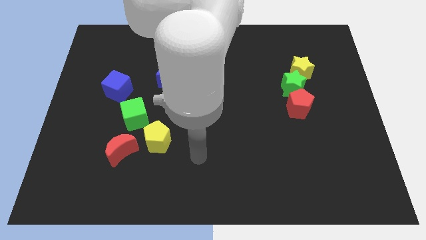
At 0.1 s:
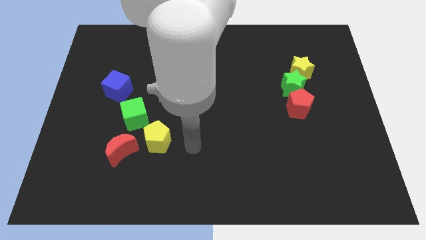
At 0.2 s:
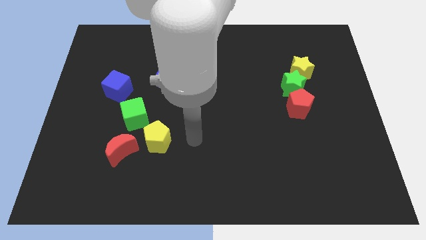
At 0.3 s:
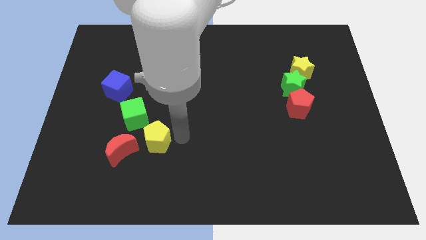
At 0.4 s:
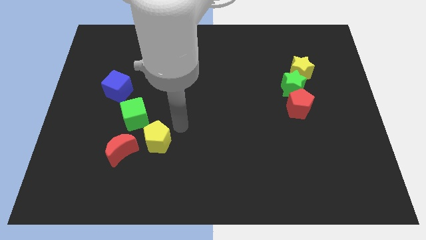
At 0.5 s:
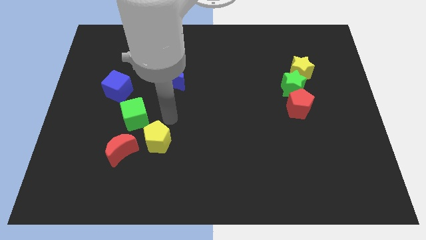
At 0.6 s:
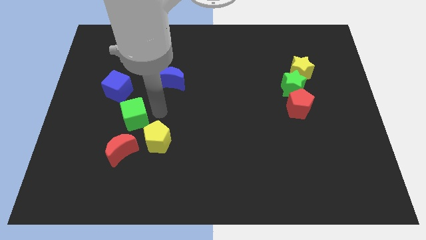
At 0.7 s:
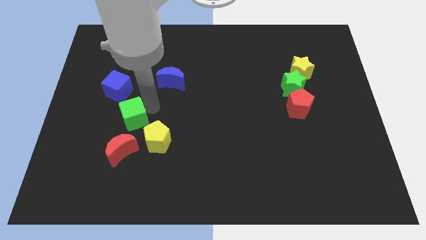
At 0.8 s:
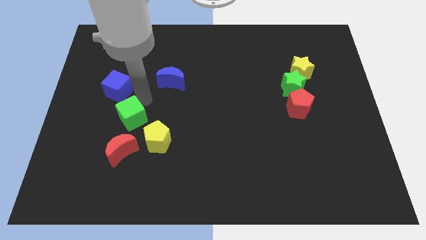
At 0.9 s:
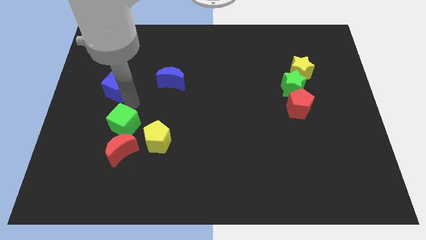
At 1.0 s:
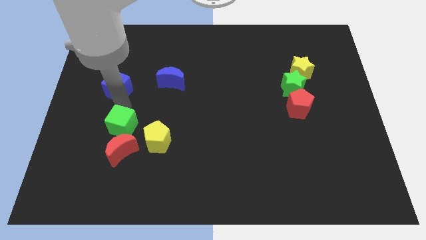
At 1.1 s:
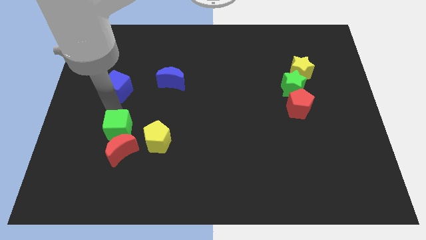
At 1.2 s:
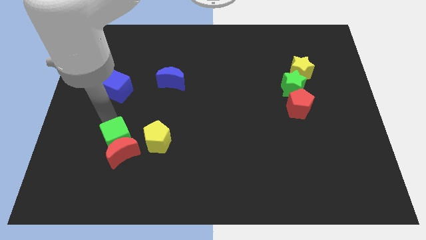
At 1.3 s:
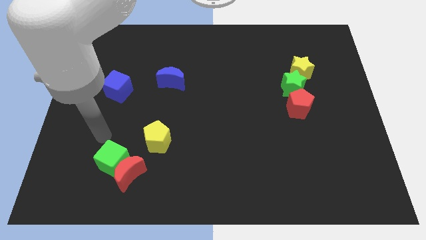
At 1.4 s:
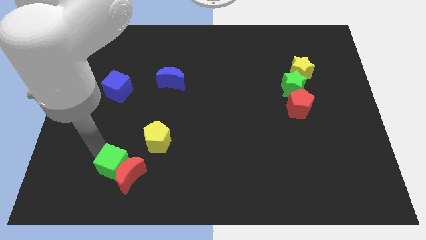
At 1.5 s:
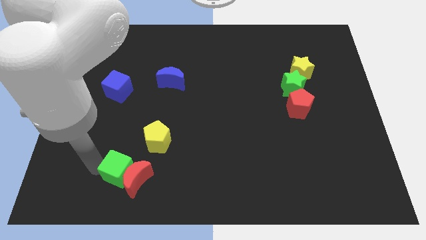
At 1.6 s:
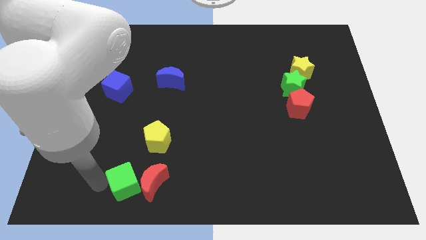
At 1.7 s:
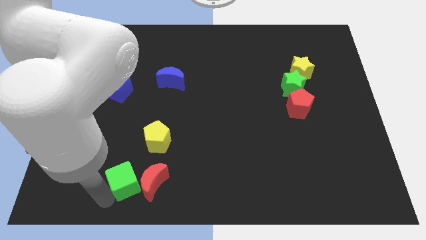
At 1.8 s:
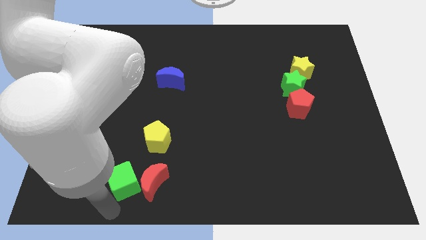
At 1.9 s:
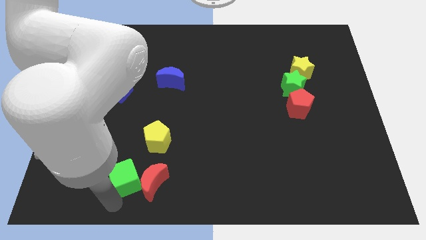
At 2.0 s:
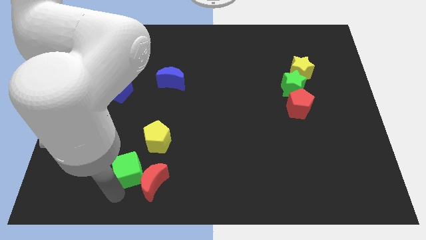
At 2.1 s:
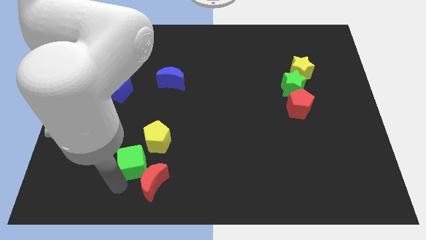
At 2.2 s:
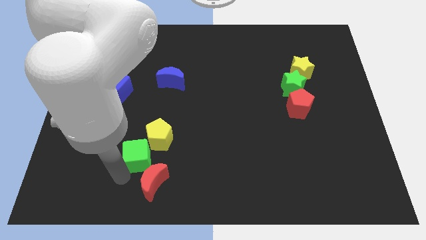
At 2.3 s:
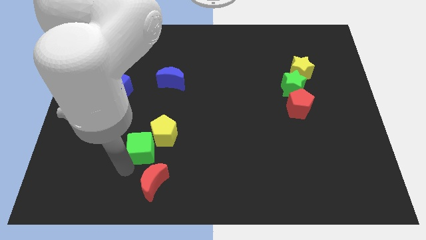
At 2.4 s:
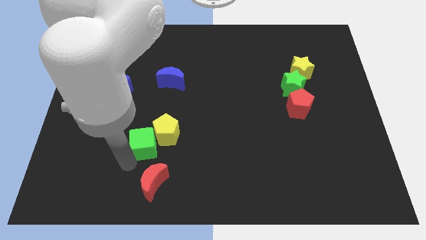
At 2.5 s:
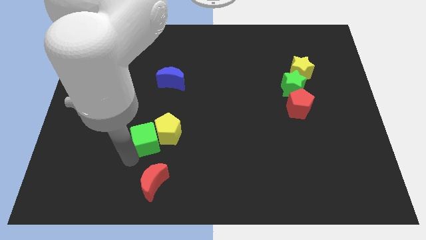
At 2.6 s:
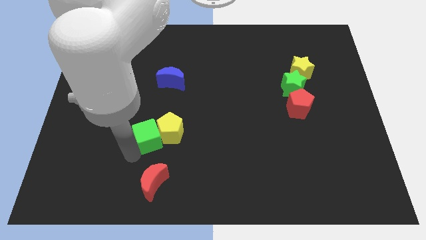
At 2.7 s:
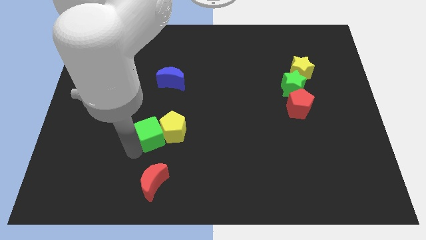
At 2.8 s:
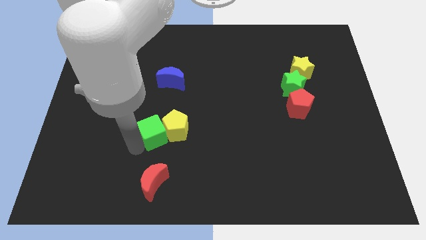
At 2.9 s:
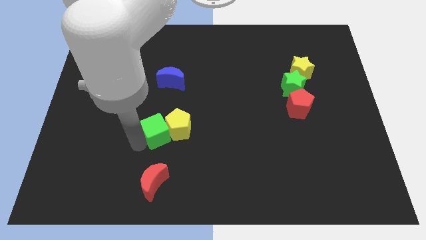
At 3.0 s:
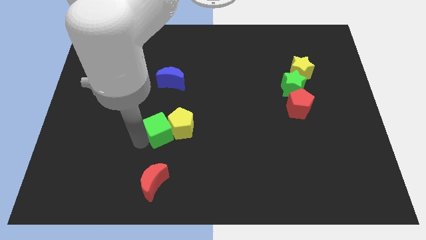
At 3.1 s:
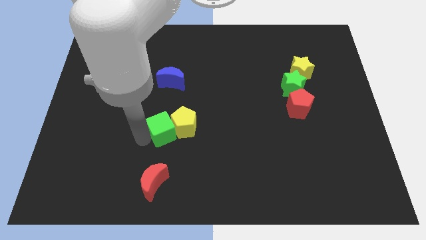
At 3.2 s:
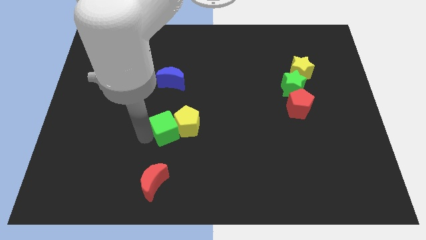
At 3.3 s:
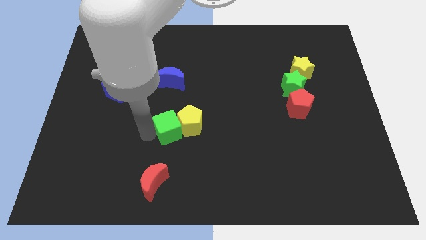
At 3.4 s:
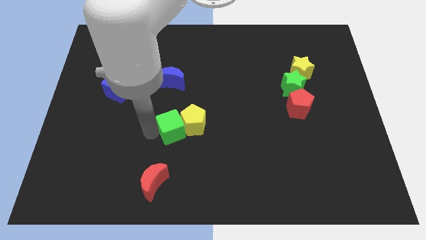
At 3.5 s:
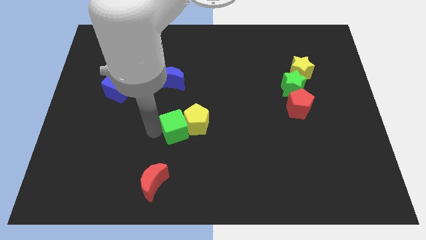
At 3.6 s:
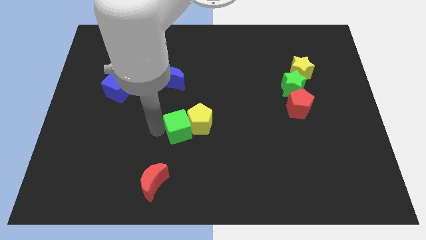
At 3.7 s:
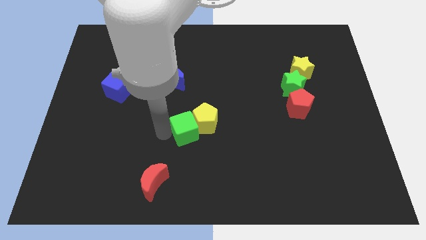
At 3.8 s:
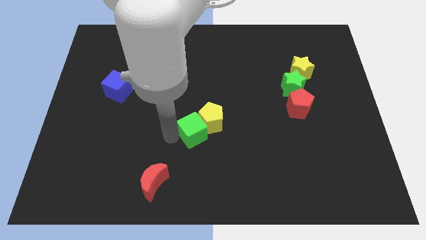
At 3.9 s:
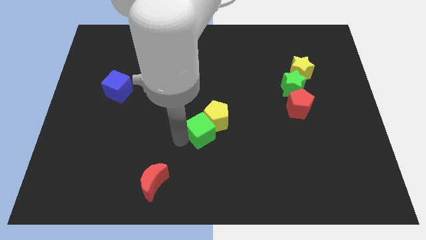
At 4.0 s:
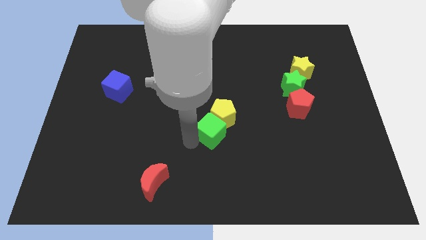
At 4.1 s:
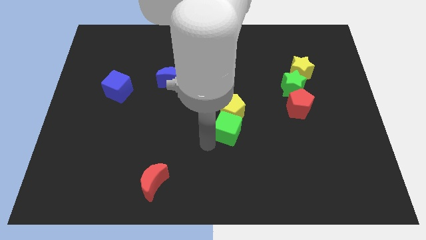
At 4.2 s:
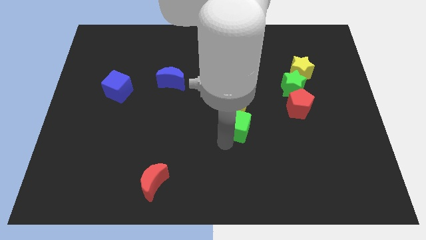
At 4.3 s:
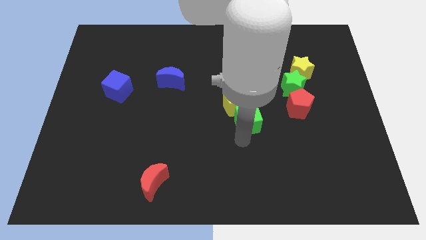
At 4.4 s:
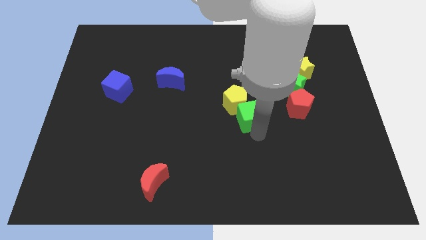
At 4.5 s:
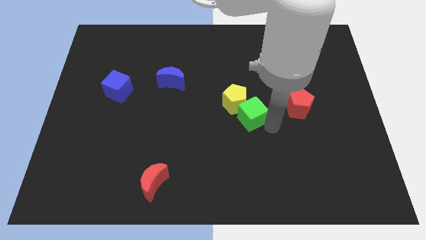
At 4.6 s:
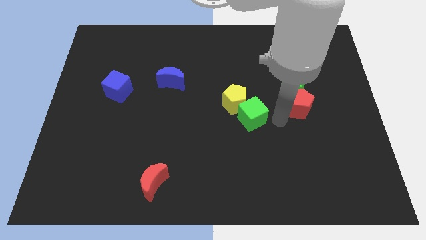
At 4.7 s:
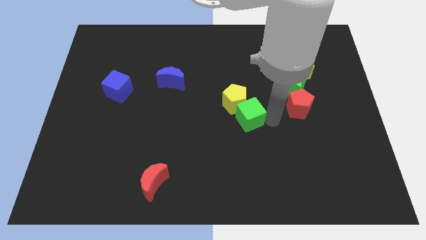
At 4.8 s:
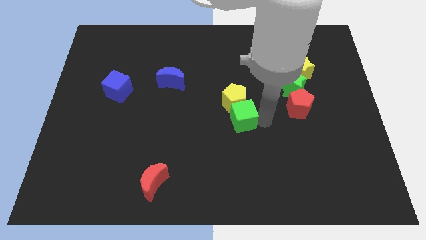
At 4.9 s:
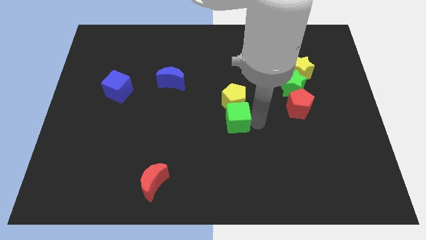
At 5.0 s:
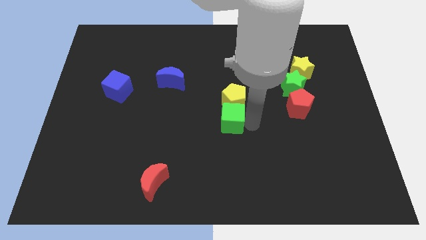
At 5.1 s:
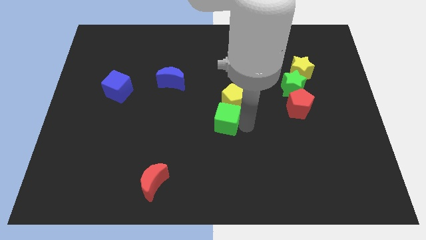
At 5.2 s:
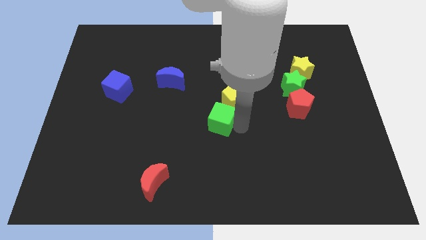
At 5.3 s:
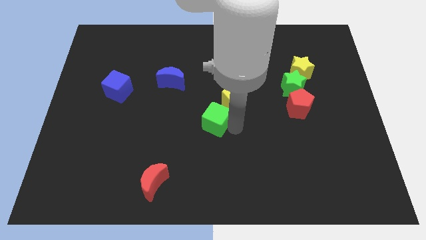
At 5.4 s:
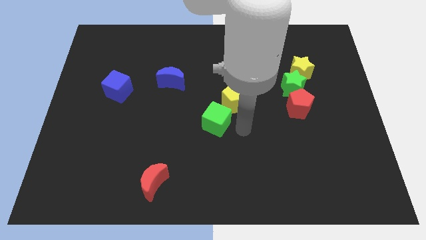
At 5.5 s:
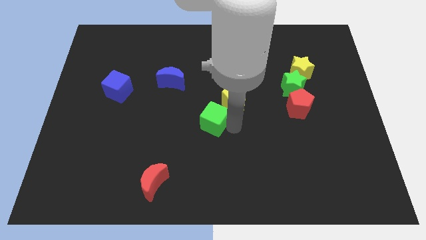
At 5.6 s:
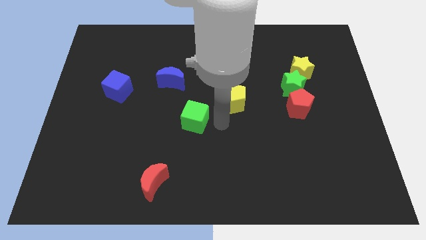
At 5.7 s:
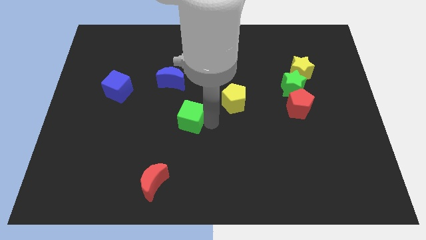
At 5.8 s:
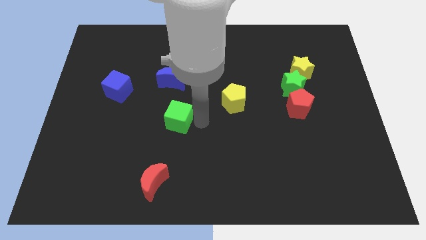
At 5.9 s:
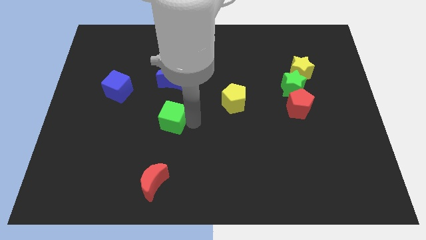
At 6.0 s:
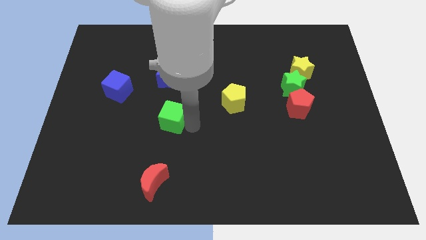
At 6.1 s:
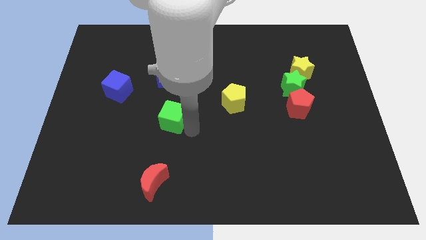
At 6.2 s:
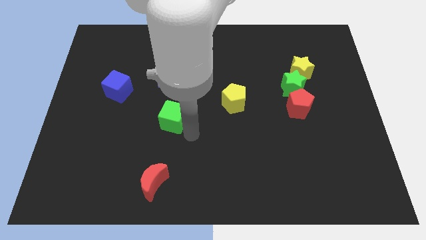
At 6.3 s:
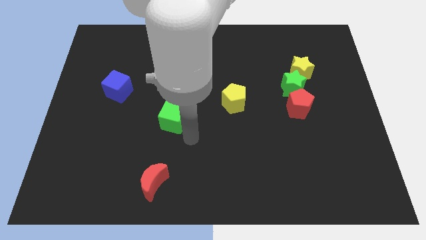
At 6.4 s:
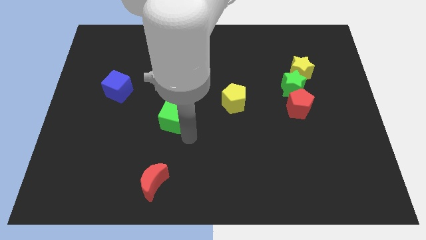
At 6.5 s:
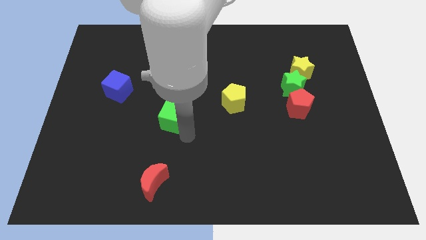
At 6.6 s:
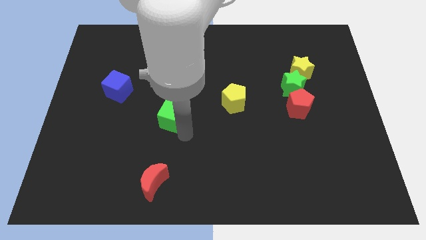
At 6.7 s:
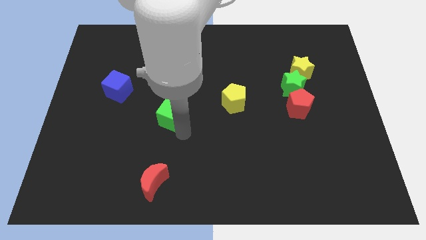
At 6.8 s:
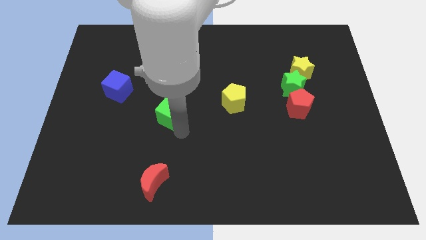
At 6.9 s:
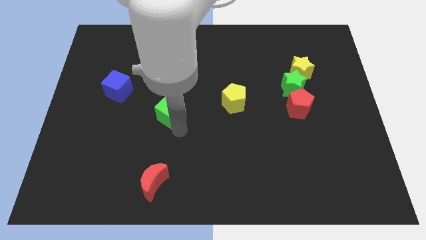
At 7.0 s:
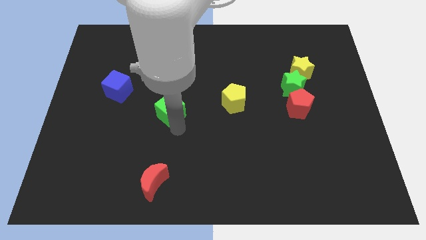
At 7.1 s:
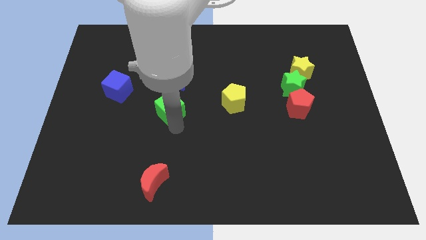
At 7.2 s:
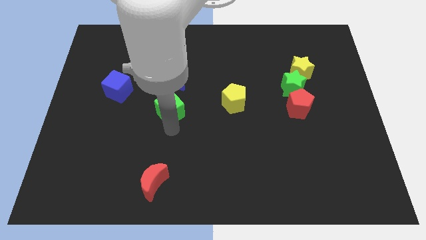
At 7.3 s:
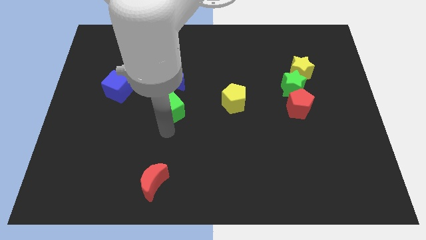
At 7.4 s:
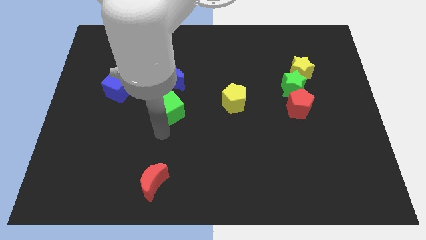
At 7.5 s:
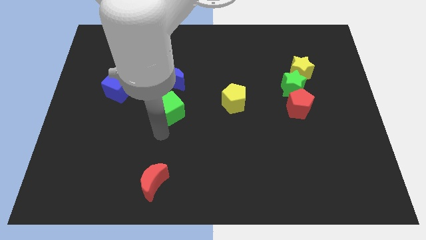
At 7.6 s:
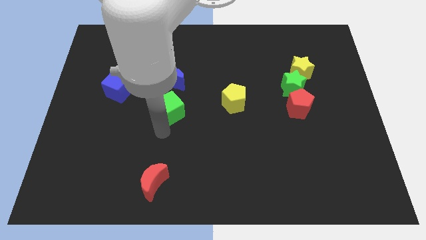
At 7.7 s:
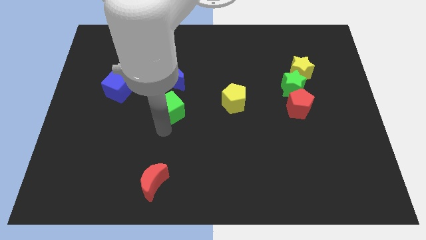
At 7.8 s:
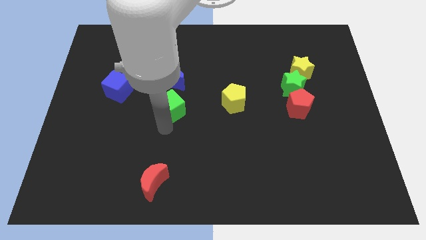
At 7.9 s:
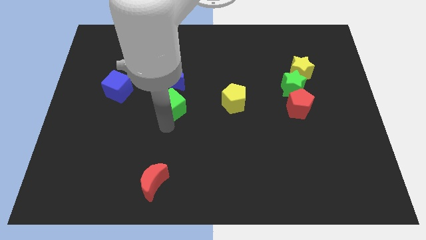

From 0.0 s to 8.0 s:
slightly slide the green cube upwards and then to the right
